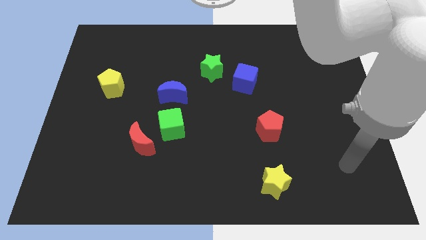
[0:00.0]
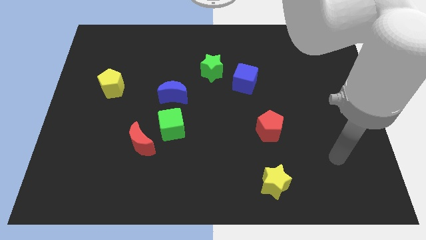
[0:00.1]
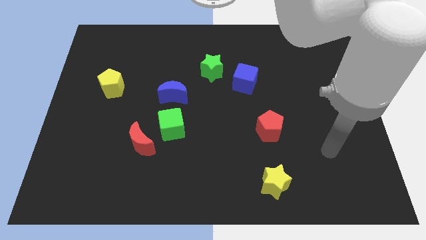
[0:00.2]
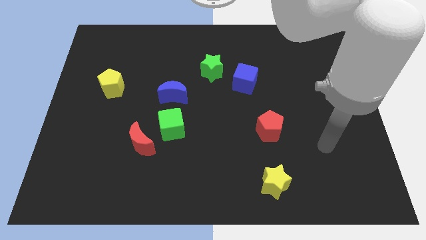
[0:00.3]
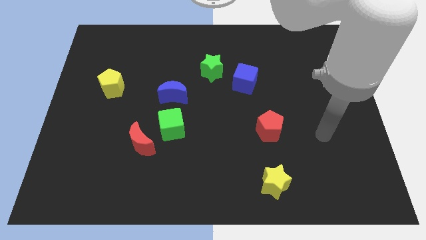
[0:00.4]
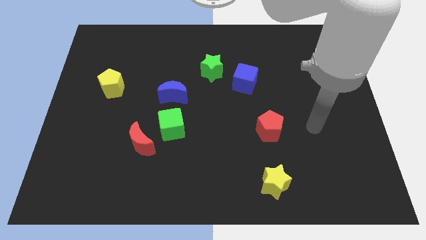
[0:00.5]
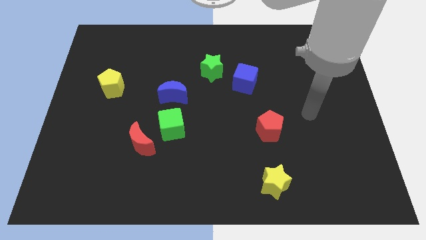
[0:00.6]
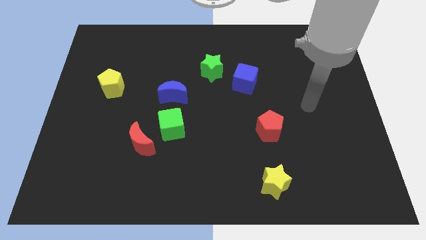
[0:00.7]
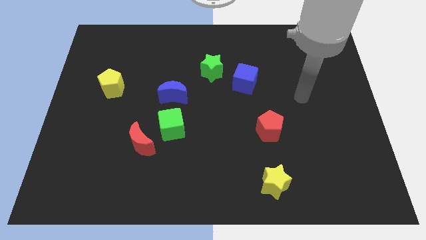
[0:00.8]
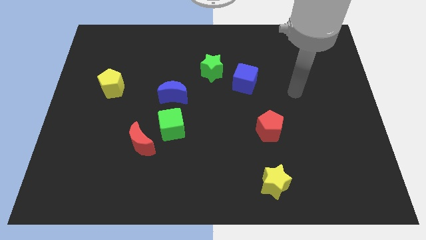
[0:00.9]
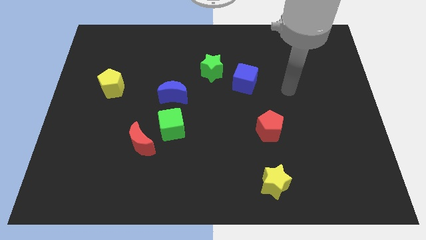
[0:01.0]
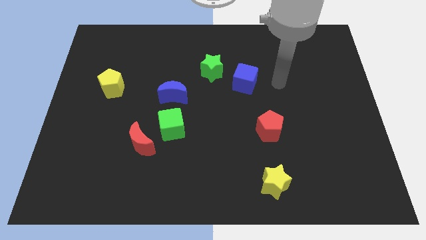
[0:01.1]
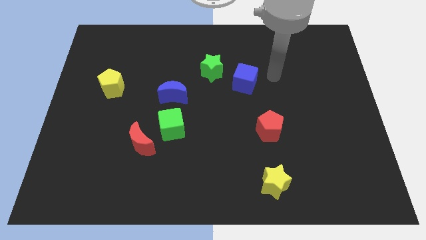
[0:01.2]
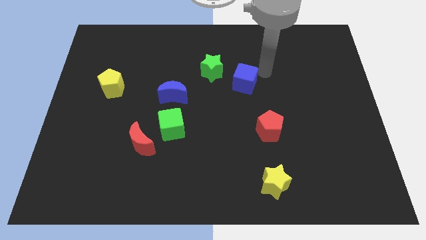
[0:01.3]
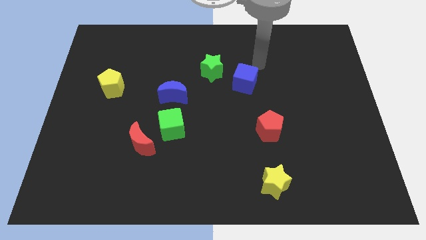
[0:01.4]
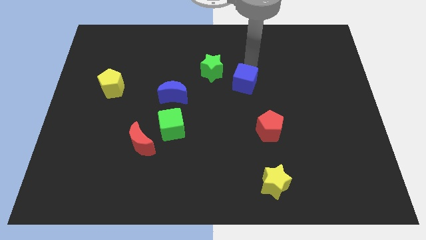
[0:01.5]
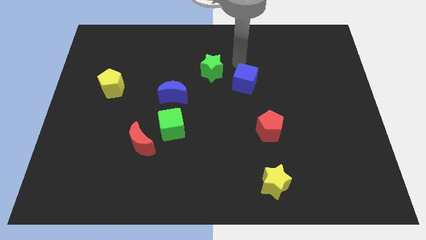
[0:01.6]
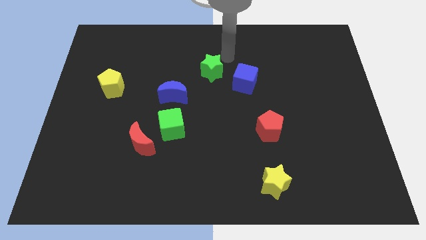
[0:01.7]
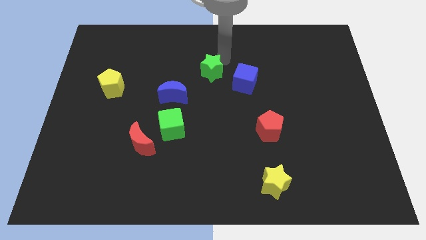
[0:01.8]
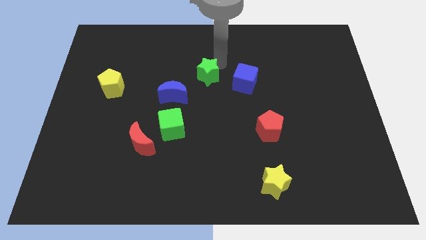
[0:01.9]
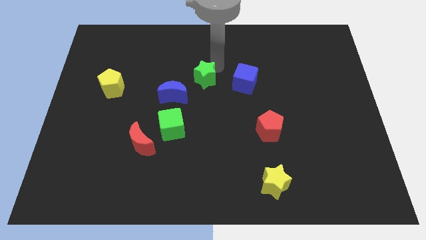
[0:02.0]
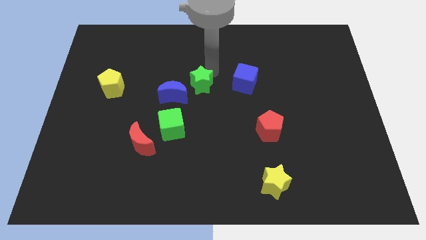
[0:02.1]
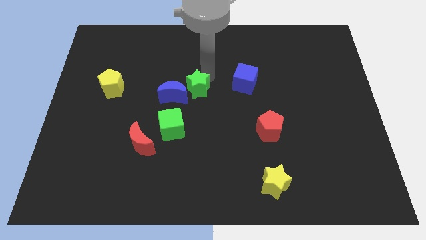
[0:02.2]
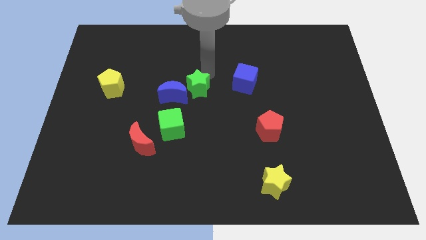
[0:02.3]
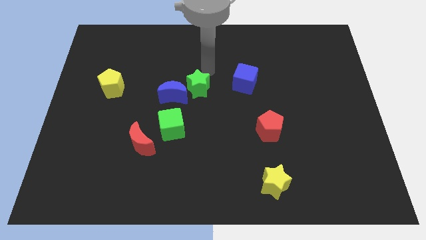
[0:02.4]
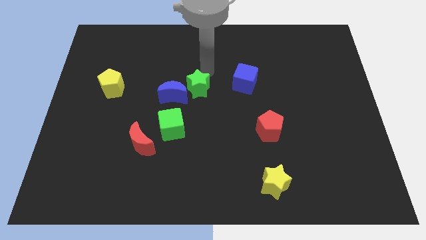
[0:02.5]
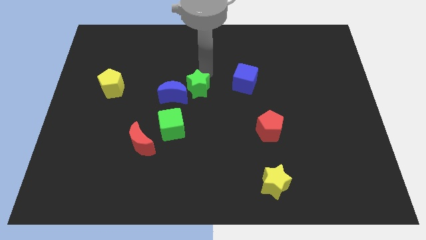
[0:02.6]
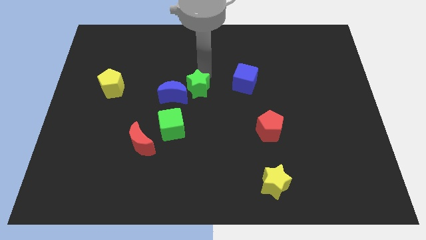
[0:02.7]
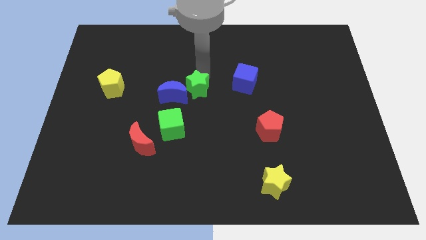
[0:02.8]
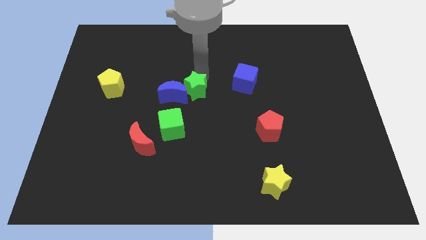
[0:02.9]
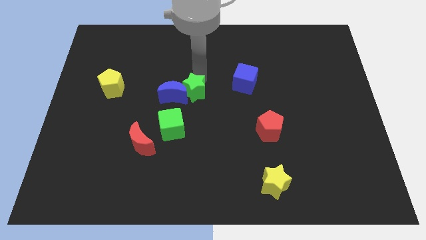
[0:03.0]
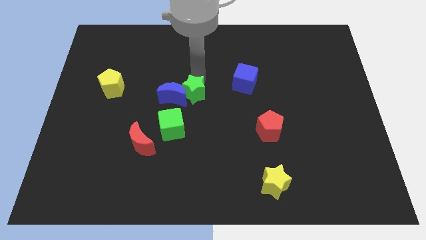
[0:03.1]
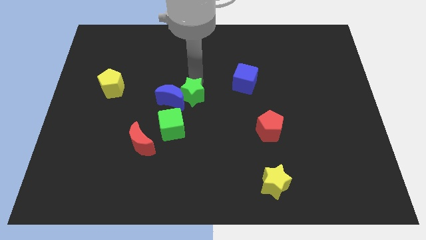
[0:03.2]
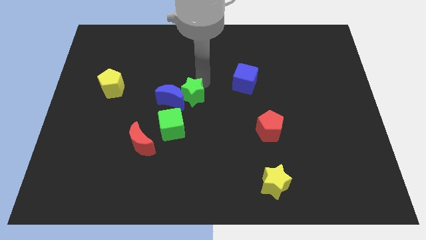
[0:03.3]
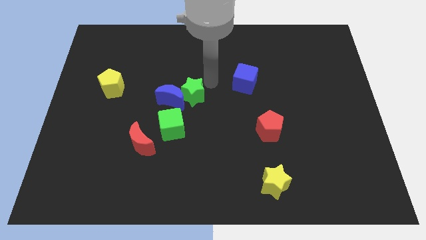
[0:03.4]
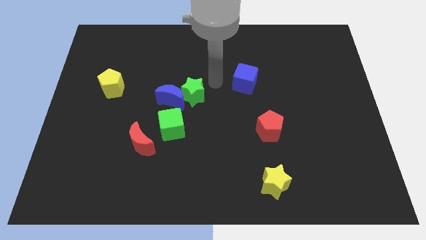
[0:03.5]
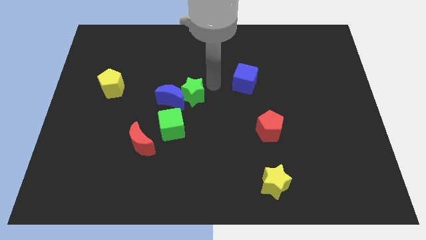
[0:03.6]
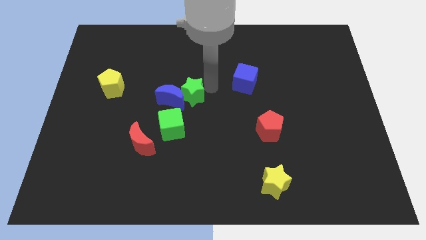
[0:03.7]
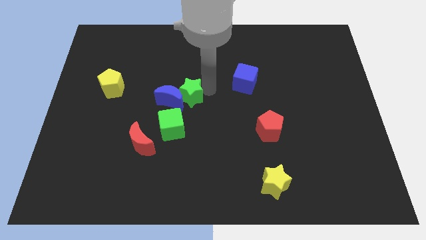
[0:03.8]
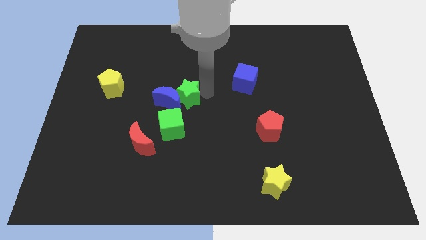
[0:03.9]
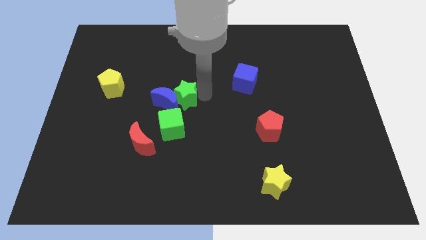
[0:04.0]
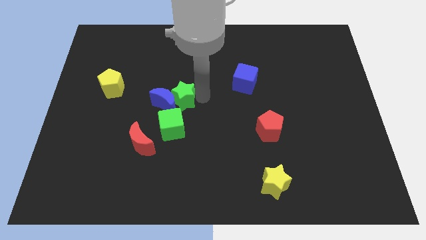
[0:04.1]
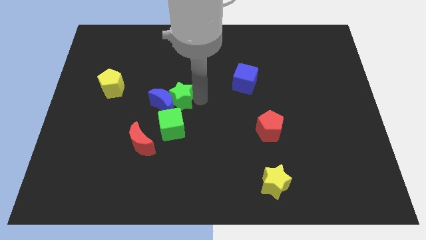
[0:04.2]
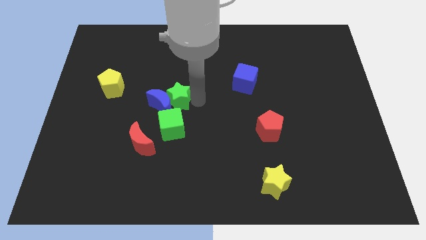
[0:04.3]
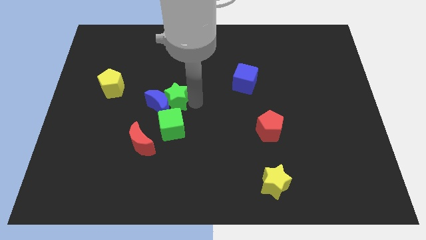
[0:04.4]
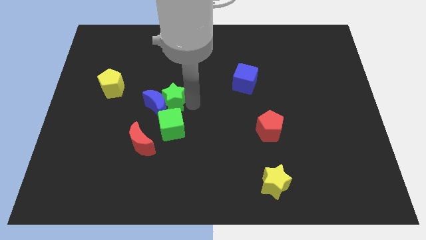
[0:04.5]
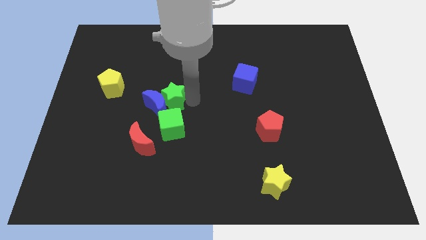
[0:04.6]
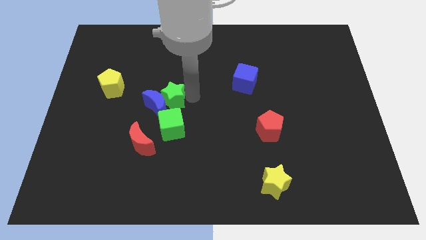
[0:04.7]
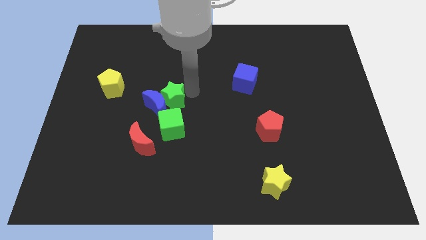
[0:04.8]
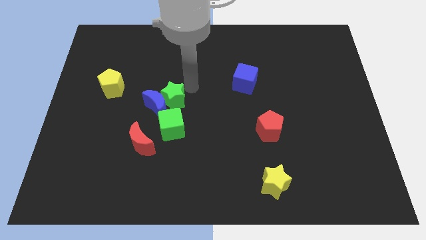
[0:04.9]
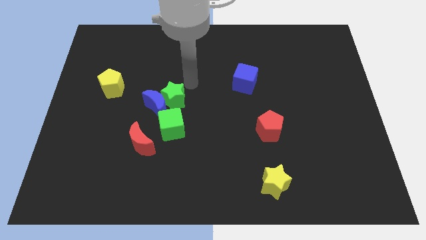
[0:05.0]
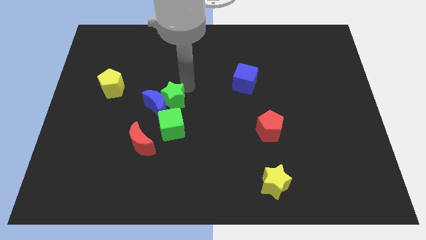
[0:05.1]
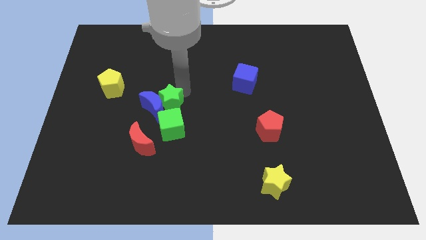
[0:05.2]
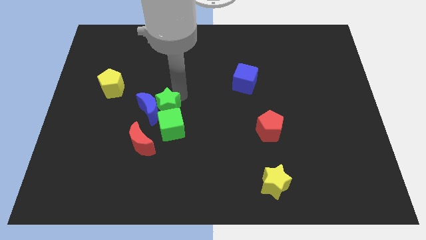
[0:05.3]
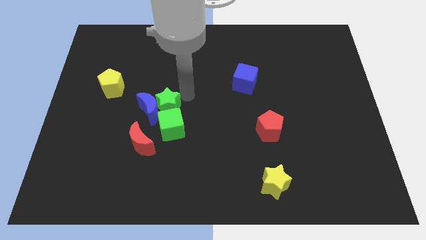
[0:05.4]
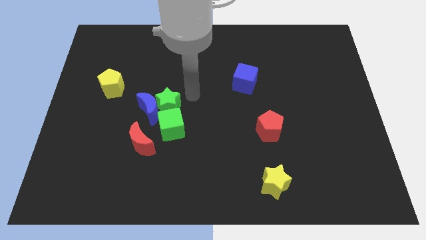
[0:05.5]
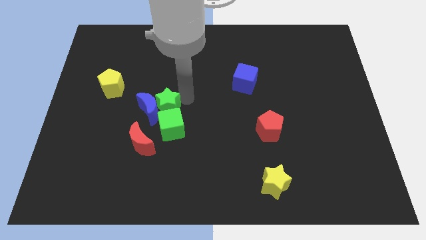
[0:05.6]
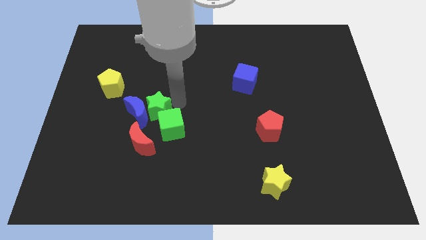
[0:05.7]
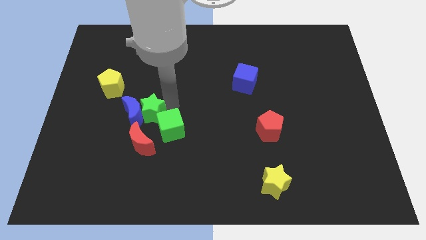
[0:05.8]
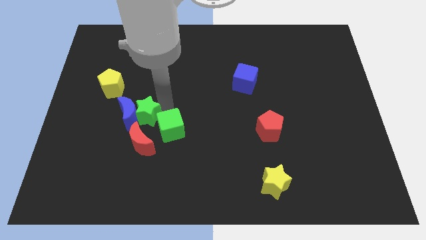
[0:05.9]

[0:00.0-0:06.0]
move the green star down and then to the left

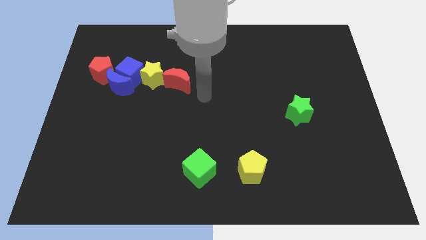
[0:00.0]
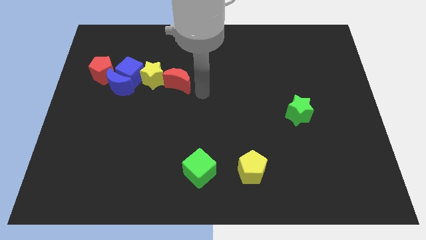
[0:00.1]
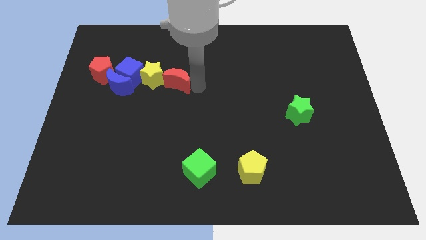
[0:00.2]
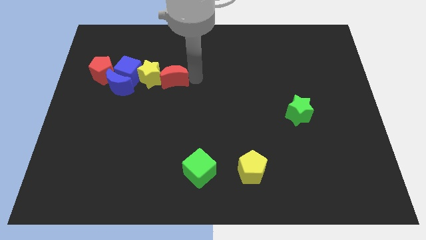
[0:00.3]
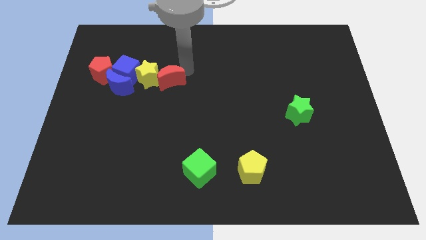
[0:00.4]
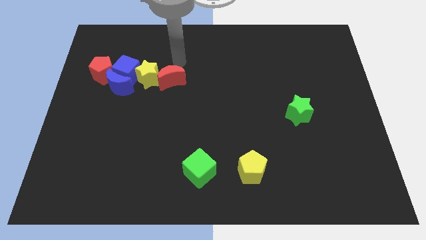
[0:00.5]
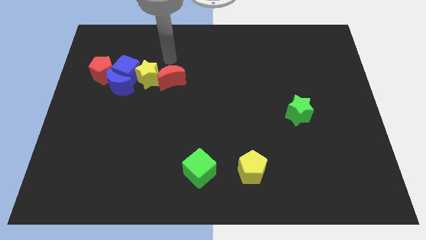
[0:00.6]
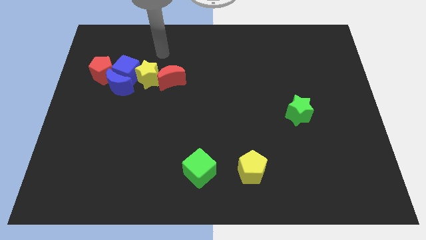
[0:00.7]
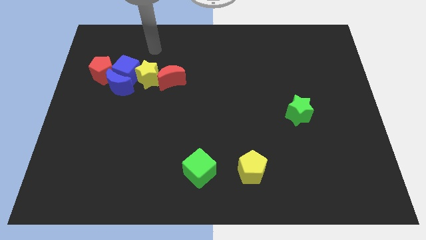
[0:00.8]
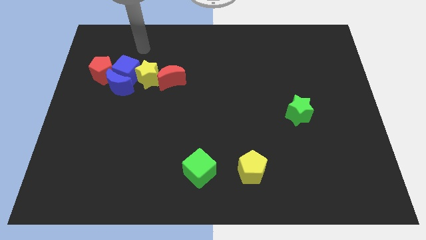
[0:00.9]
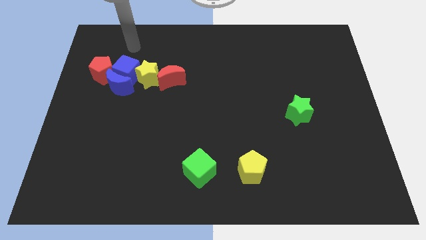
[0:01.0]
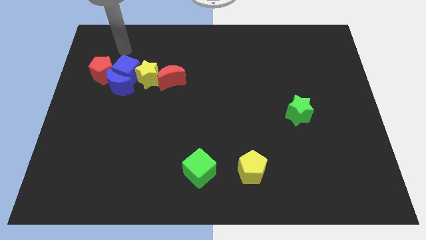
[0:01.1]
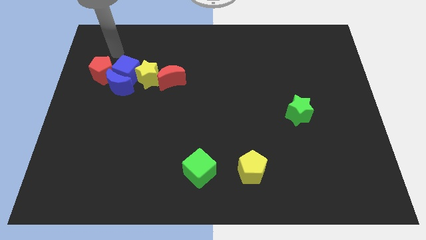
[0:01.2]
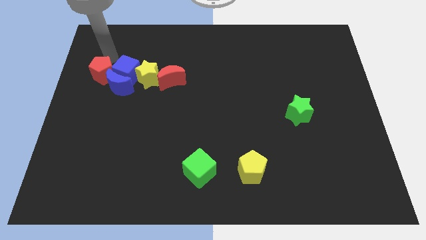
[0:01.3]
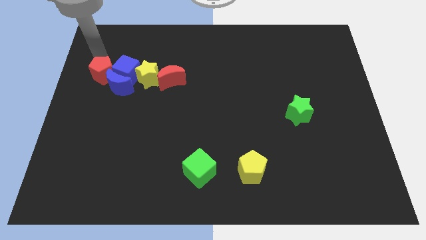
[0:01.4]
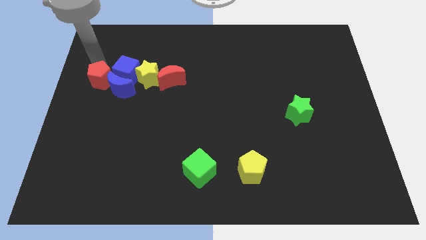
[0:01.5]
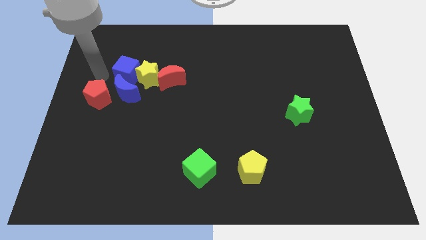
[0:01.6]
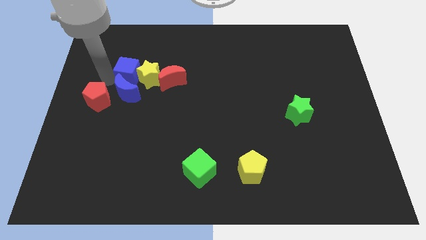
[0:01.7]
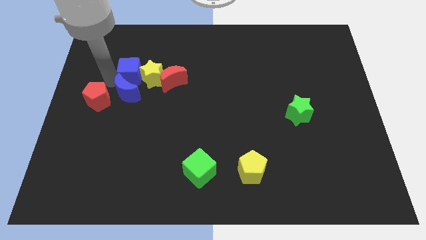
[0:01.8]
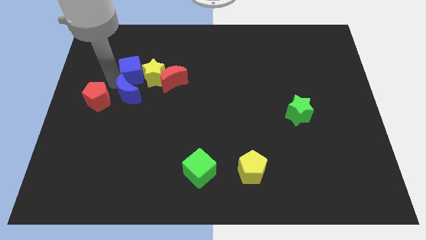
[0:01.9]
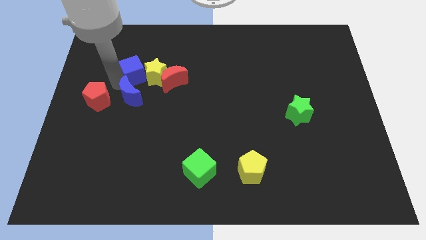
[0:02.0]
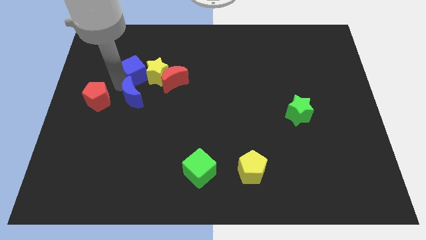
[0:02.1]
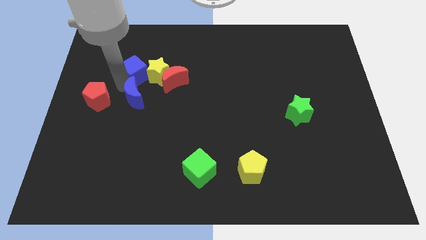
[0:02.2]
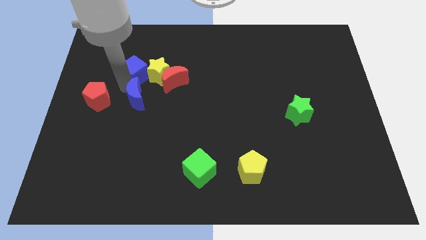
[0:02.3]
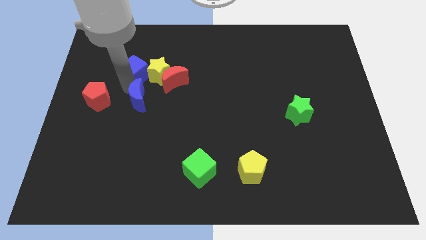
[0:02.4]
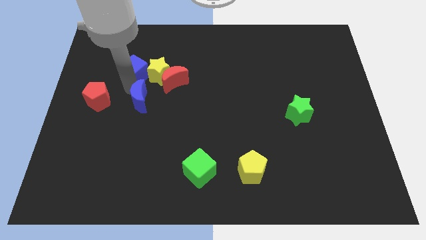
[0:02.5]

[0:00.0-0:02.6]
slightly slide the blue moon downwards and to the right diagonally
